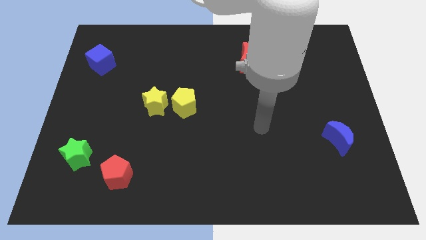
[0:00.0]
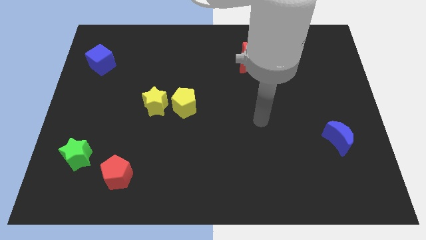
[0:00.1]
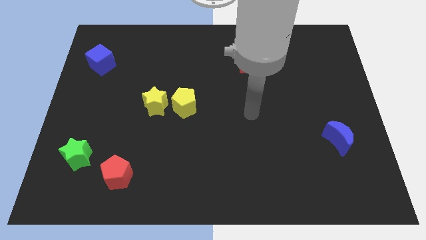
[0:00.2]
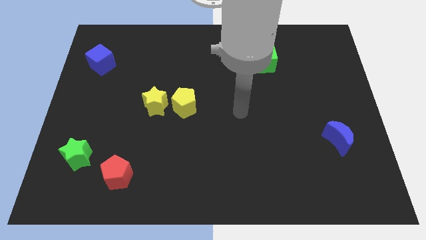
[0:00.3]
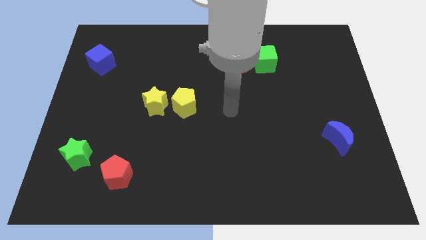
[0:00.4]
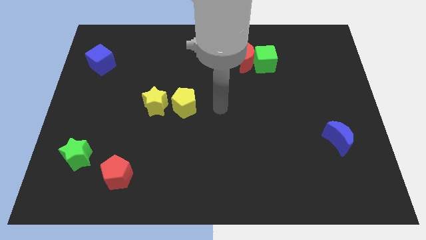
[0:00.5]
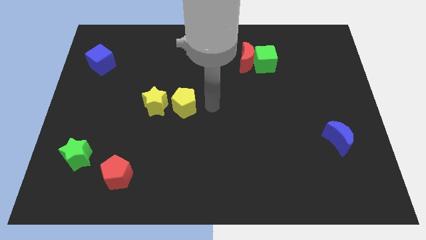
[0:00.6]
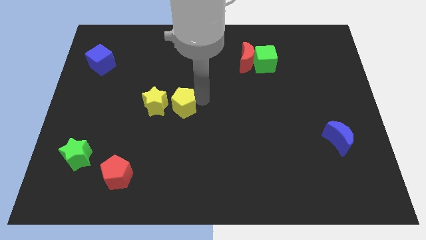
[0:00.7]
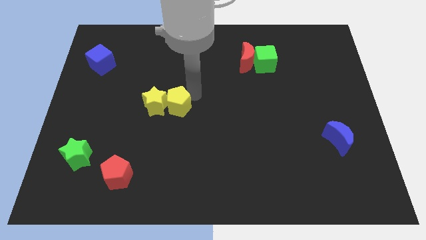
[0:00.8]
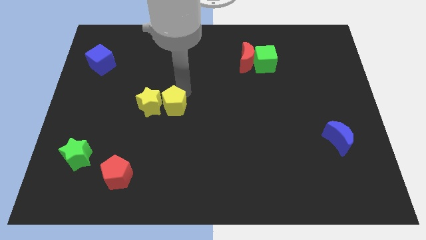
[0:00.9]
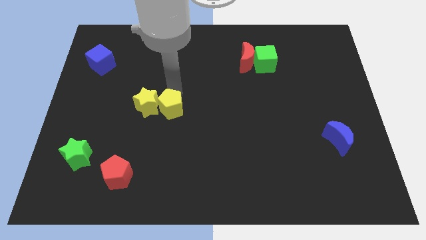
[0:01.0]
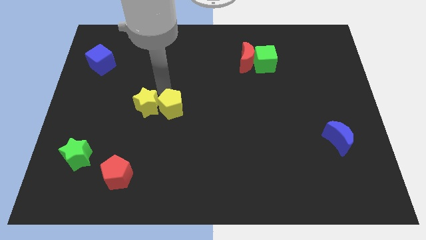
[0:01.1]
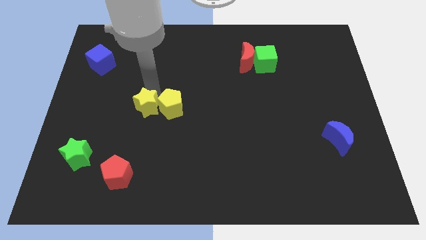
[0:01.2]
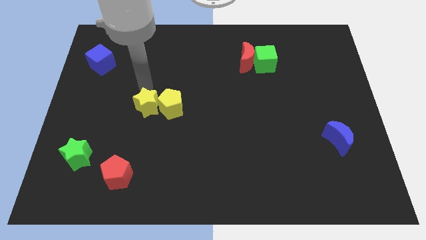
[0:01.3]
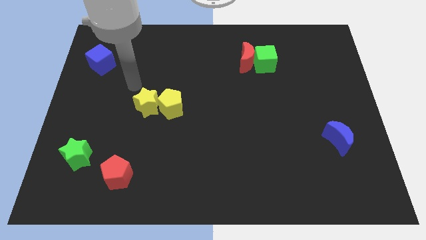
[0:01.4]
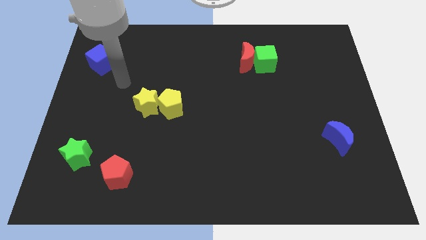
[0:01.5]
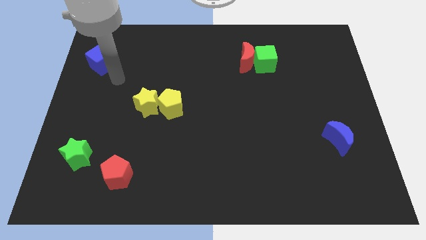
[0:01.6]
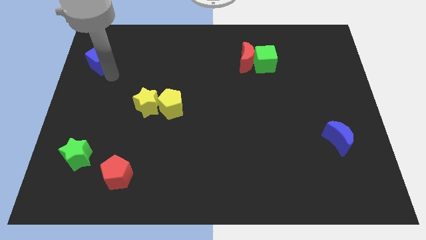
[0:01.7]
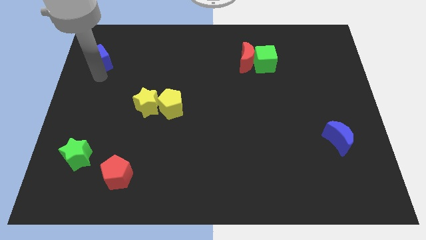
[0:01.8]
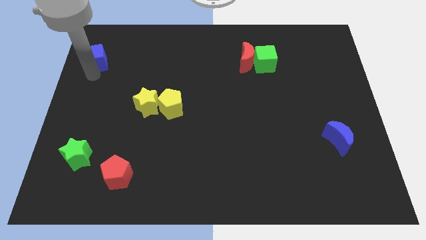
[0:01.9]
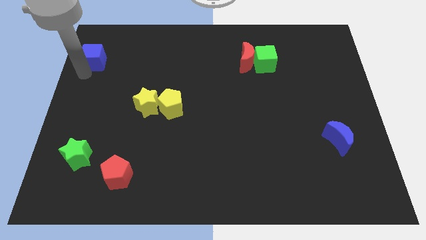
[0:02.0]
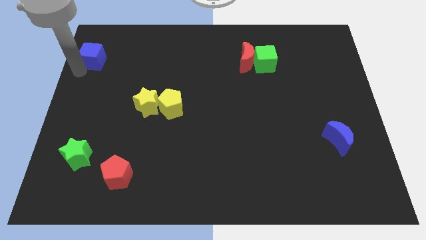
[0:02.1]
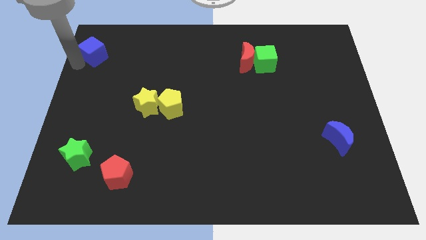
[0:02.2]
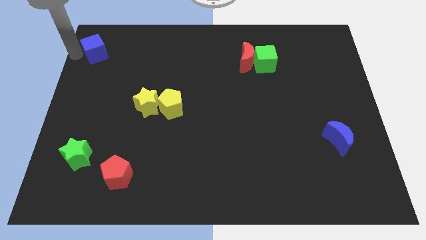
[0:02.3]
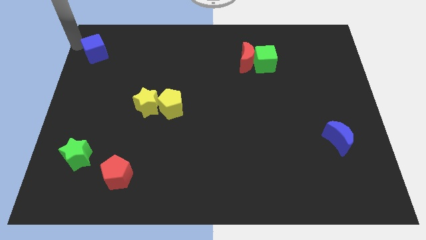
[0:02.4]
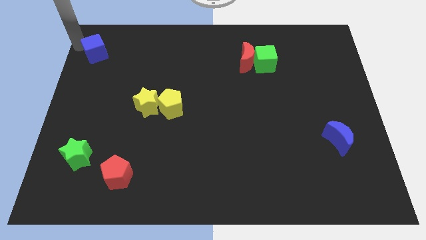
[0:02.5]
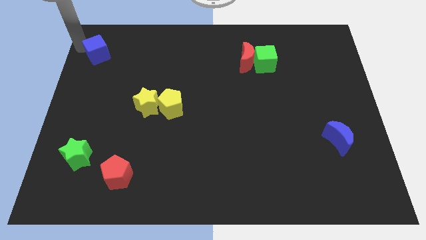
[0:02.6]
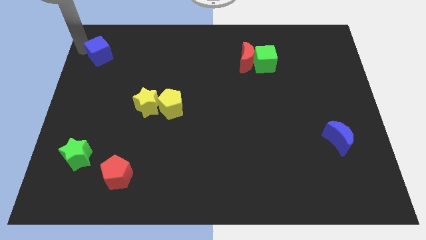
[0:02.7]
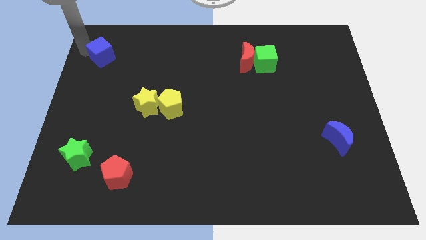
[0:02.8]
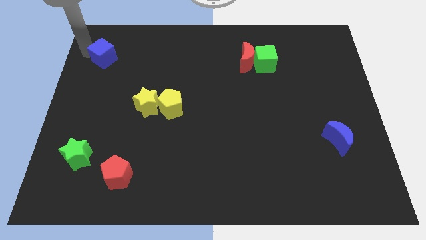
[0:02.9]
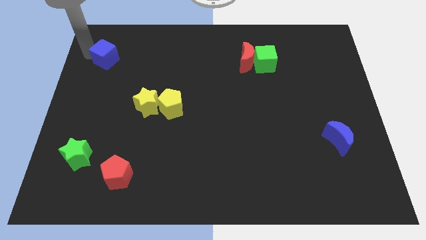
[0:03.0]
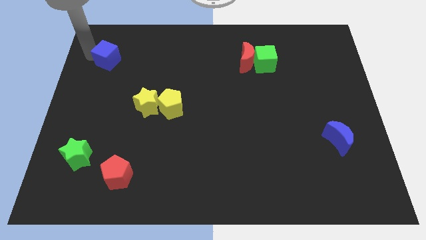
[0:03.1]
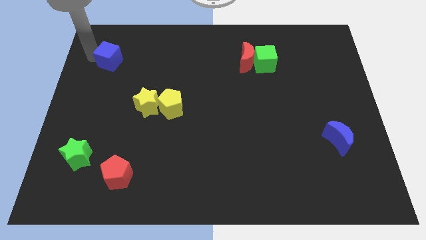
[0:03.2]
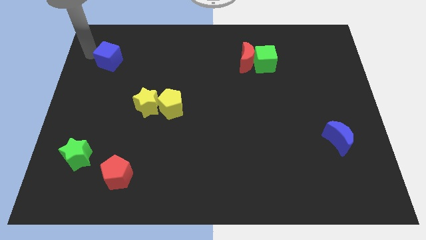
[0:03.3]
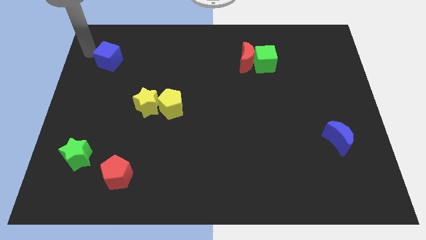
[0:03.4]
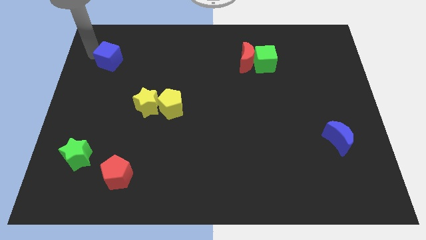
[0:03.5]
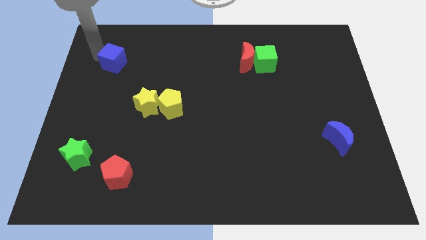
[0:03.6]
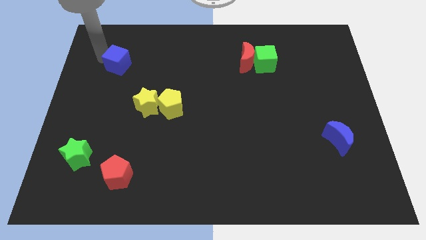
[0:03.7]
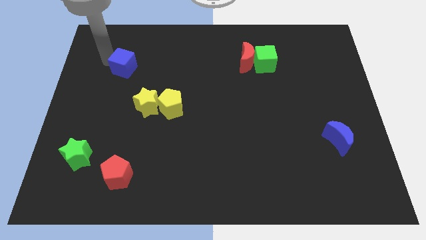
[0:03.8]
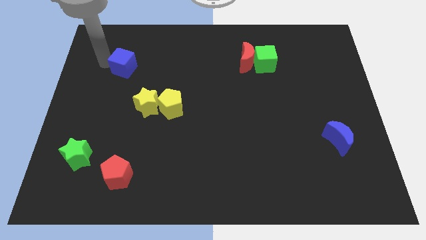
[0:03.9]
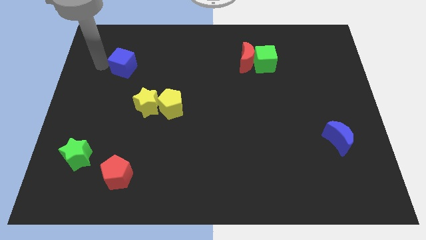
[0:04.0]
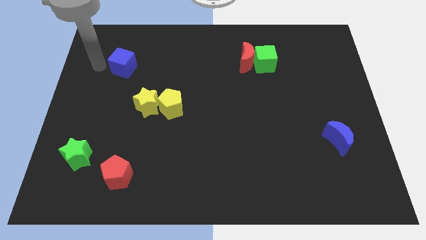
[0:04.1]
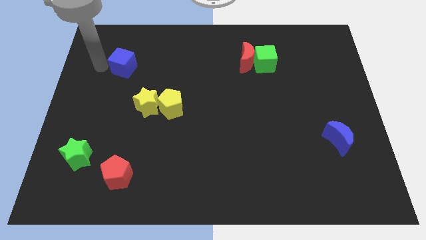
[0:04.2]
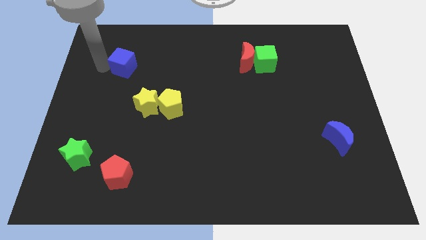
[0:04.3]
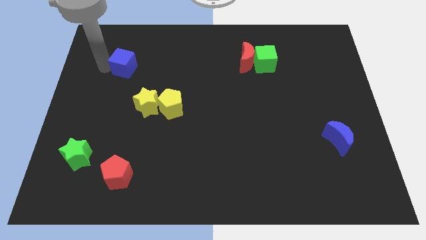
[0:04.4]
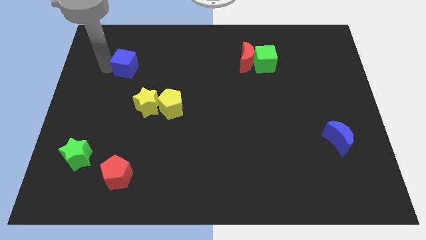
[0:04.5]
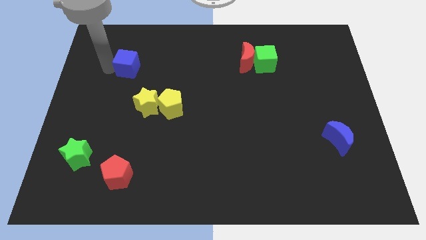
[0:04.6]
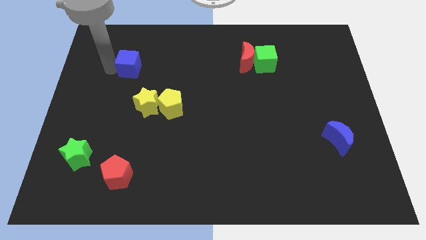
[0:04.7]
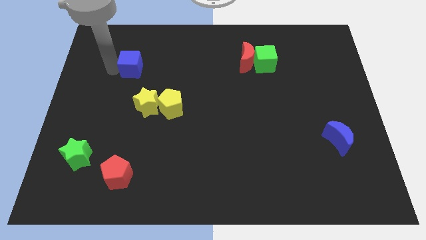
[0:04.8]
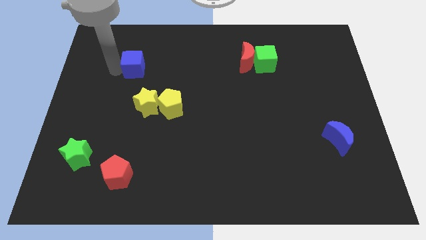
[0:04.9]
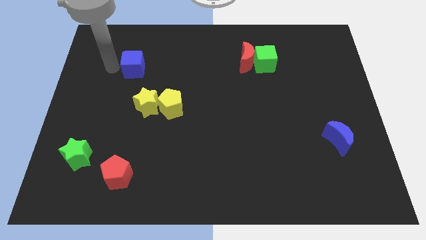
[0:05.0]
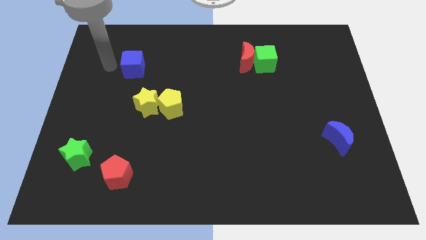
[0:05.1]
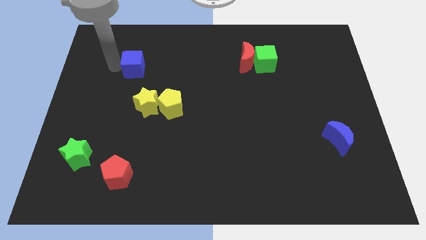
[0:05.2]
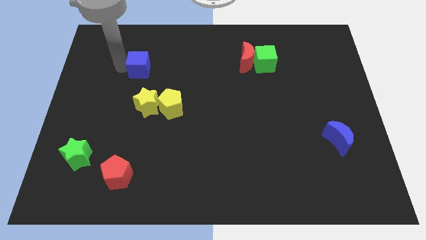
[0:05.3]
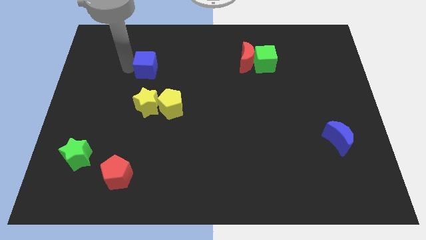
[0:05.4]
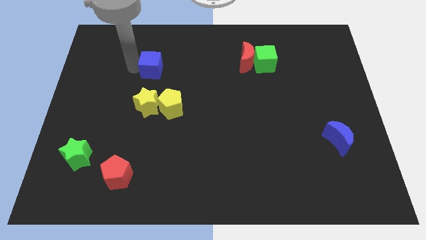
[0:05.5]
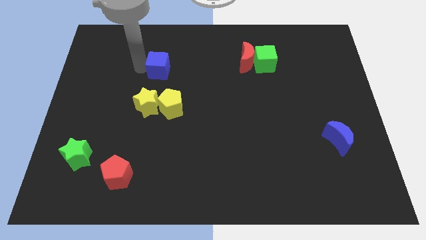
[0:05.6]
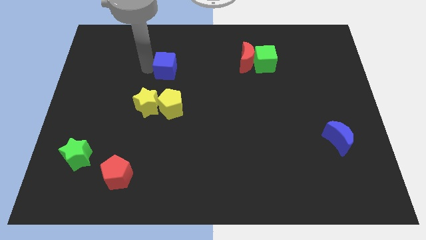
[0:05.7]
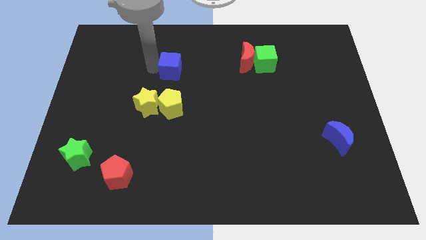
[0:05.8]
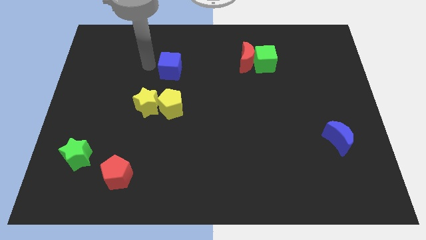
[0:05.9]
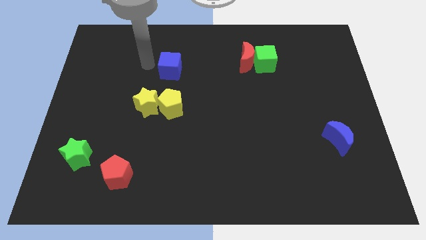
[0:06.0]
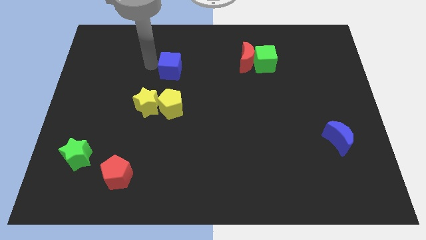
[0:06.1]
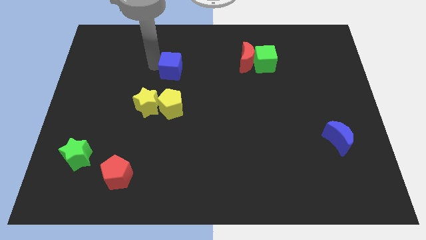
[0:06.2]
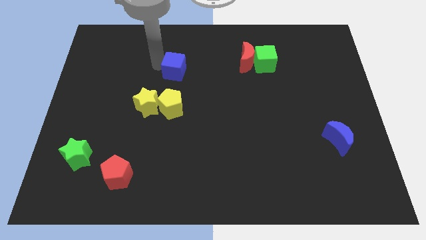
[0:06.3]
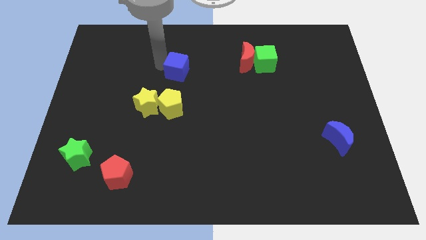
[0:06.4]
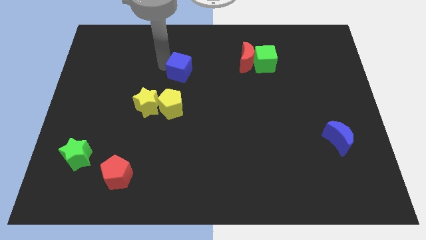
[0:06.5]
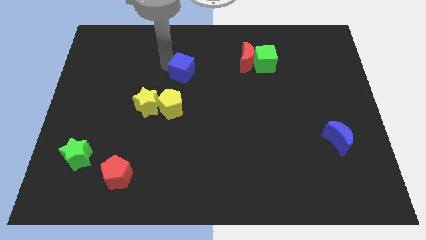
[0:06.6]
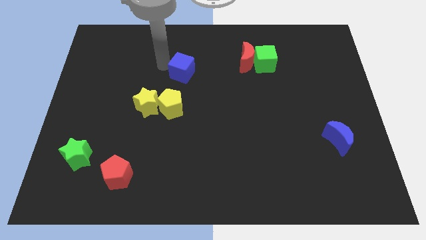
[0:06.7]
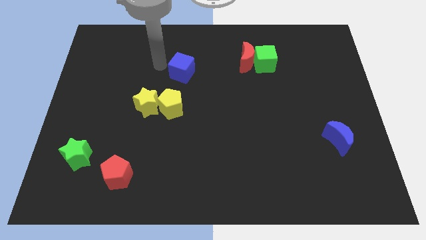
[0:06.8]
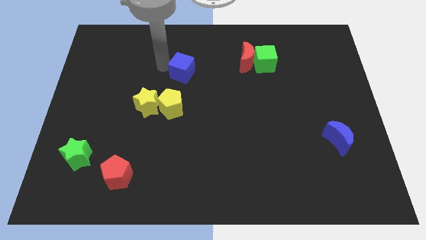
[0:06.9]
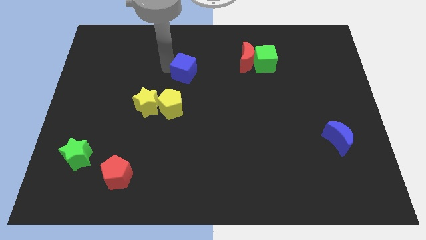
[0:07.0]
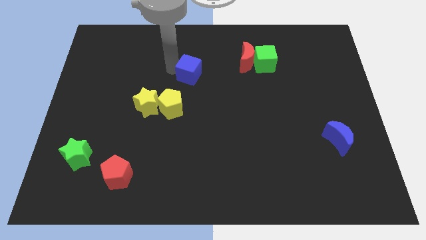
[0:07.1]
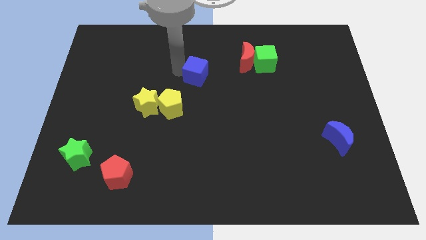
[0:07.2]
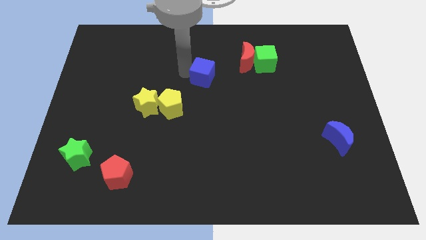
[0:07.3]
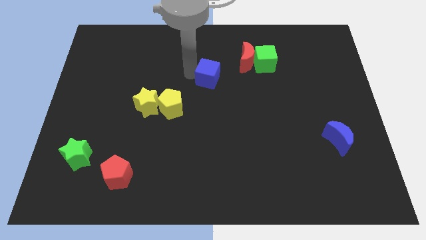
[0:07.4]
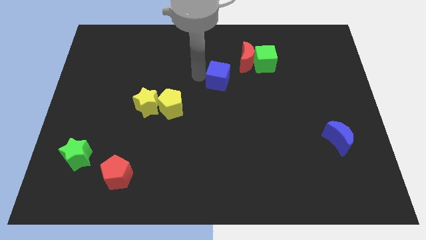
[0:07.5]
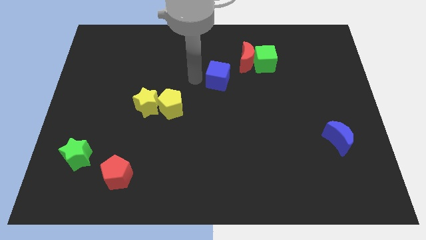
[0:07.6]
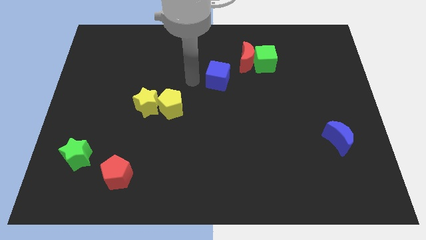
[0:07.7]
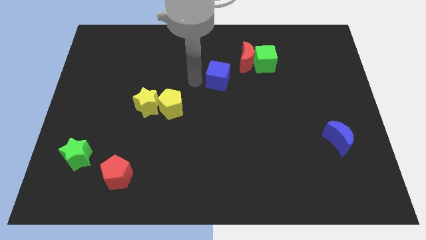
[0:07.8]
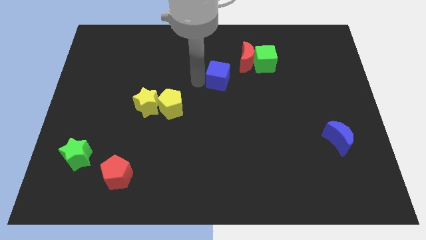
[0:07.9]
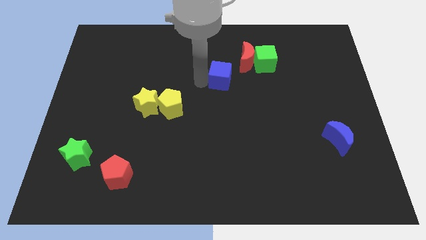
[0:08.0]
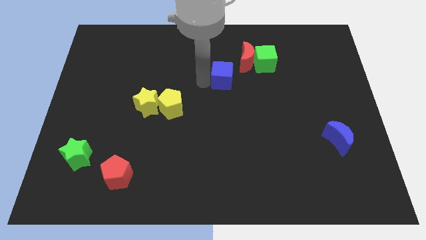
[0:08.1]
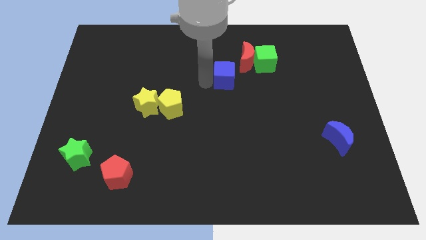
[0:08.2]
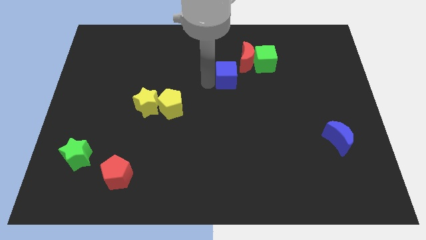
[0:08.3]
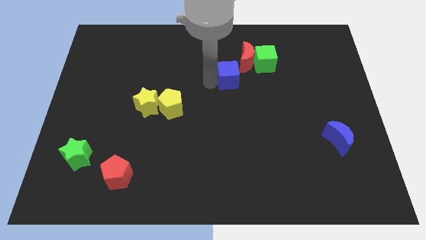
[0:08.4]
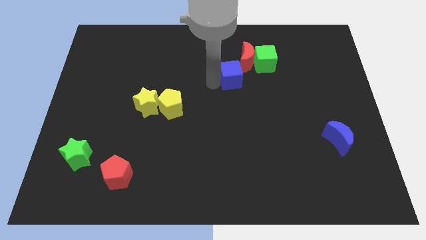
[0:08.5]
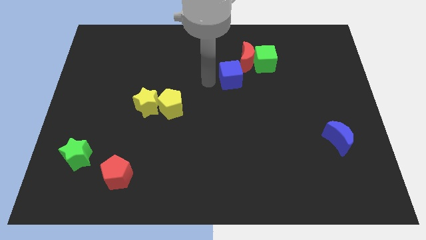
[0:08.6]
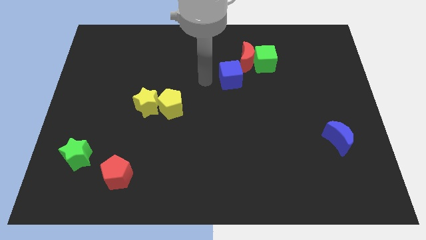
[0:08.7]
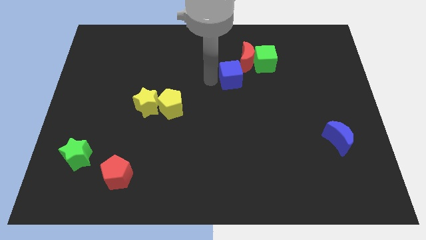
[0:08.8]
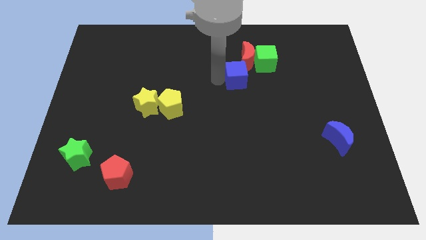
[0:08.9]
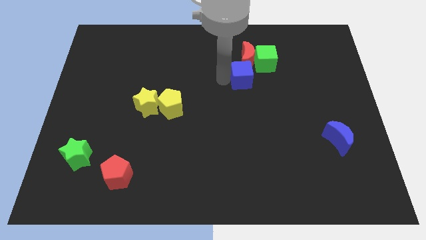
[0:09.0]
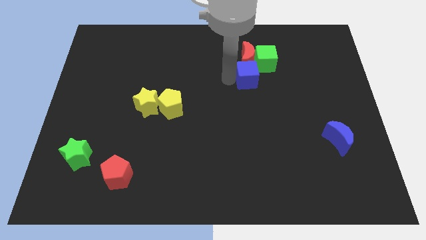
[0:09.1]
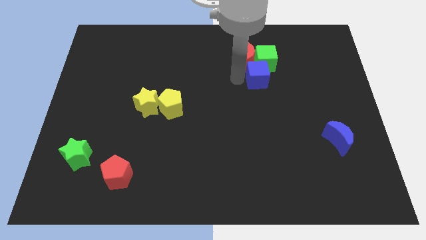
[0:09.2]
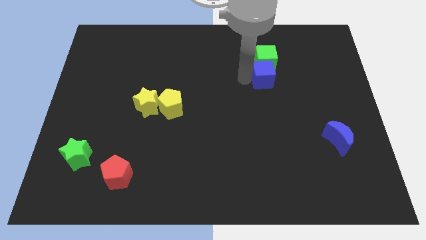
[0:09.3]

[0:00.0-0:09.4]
put the blue cube to the bottom right side of the green cube
